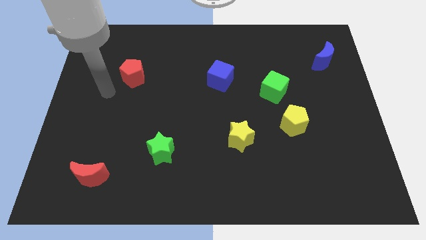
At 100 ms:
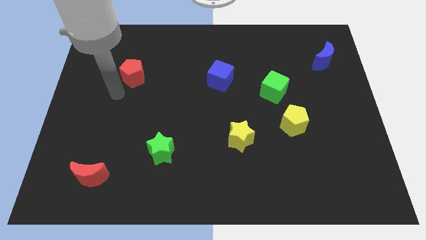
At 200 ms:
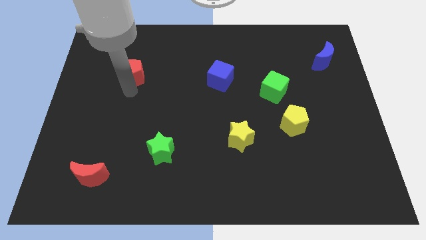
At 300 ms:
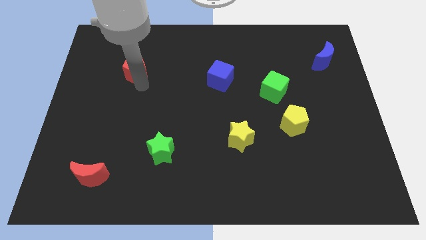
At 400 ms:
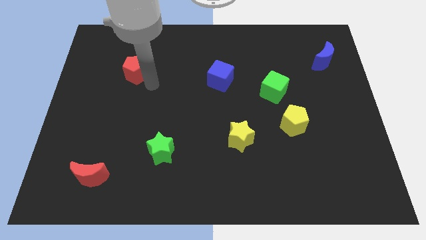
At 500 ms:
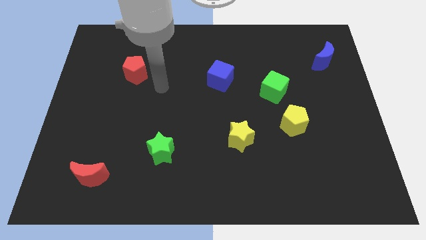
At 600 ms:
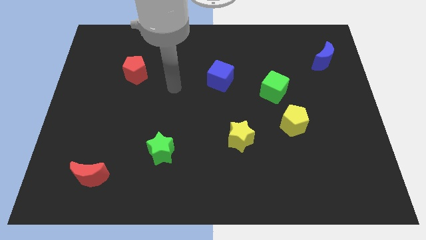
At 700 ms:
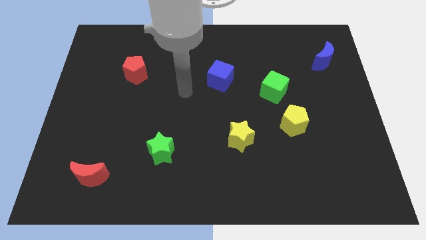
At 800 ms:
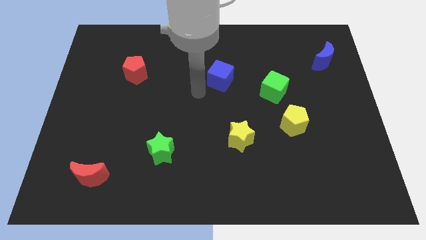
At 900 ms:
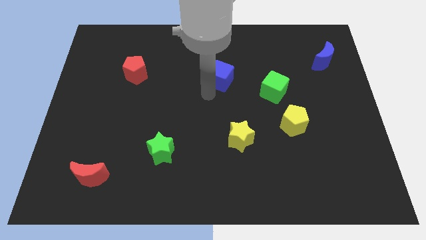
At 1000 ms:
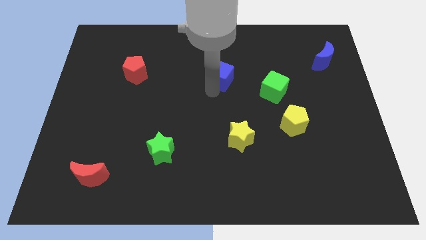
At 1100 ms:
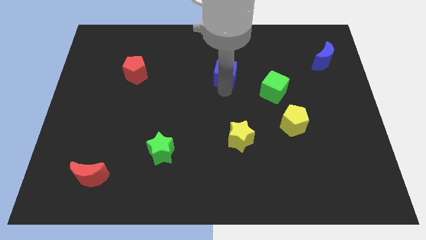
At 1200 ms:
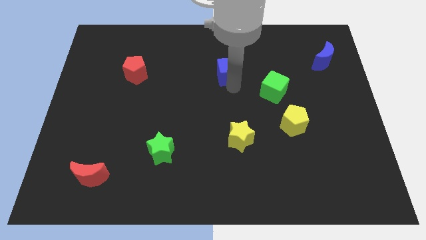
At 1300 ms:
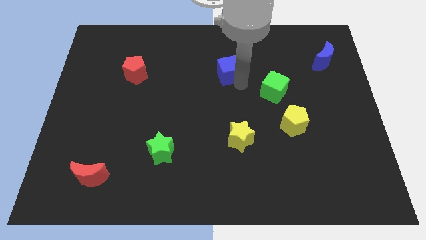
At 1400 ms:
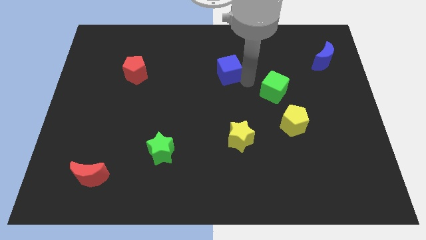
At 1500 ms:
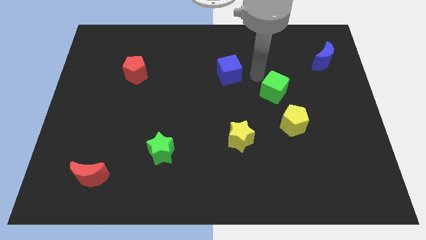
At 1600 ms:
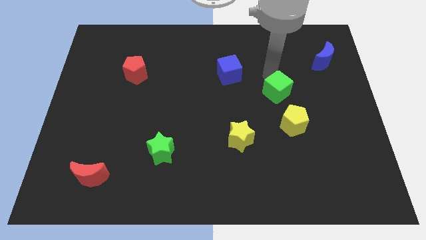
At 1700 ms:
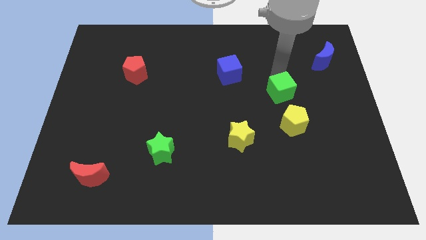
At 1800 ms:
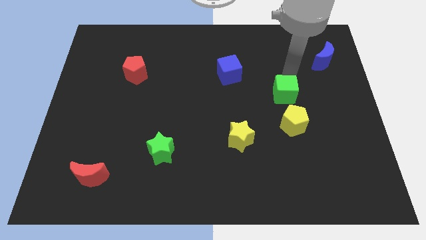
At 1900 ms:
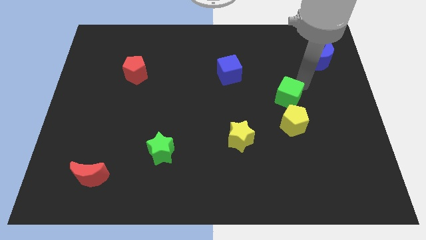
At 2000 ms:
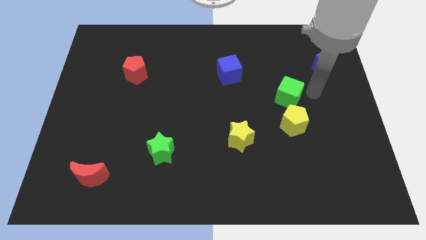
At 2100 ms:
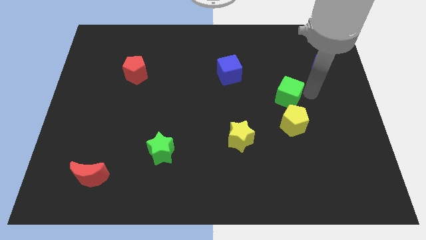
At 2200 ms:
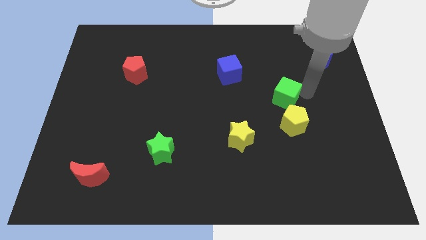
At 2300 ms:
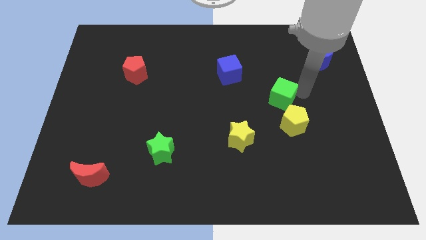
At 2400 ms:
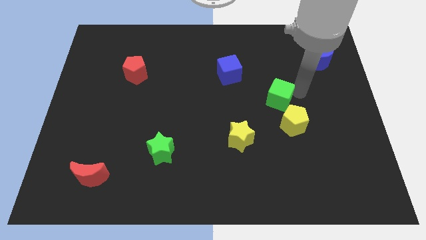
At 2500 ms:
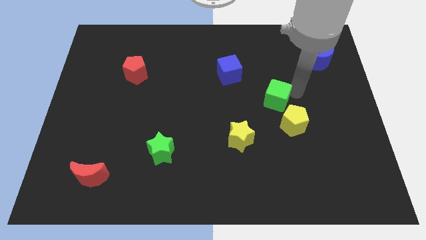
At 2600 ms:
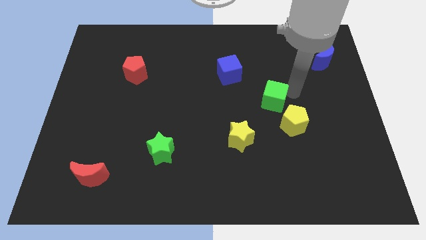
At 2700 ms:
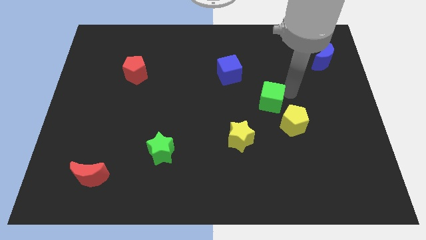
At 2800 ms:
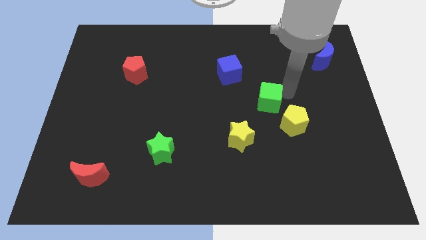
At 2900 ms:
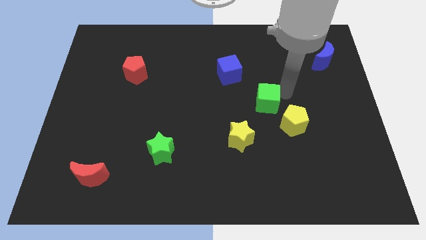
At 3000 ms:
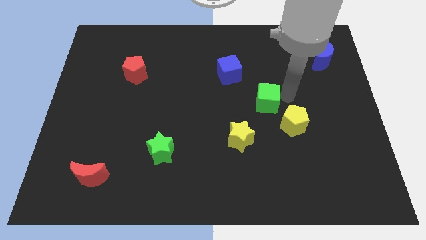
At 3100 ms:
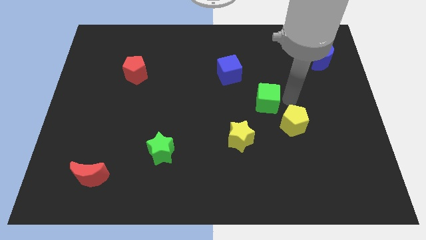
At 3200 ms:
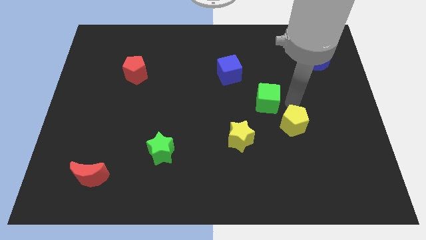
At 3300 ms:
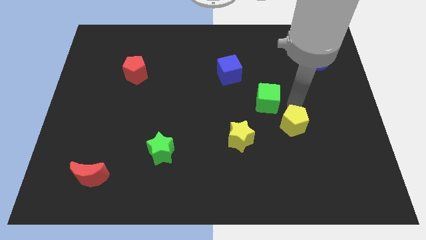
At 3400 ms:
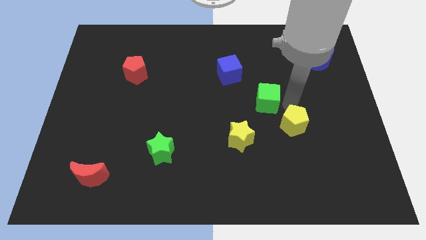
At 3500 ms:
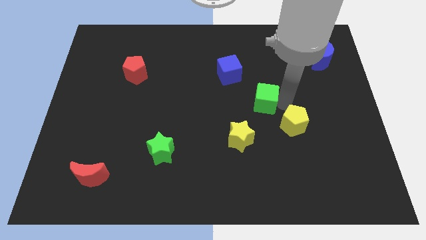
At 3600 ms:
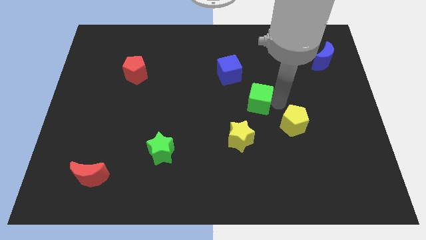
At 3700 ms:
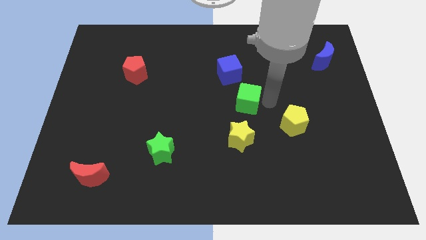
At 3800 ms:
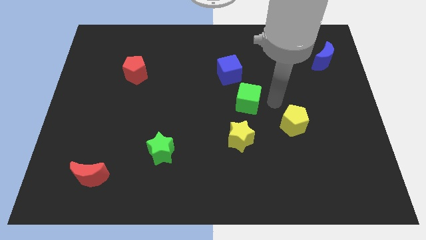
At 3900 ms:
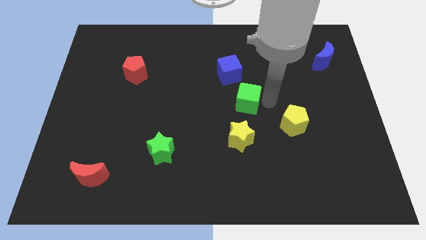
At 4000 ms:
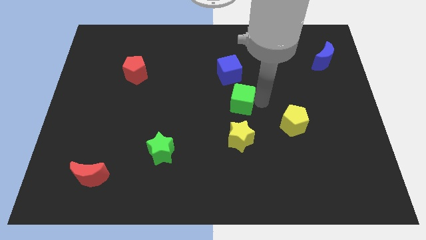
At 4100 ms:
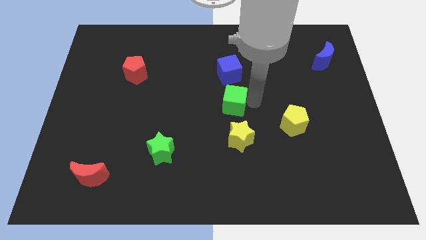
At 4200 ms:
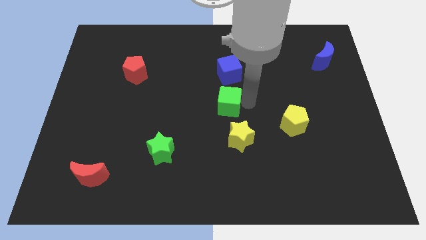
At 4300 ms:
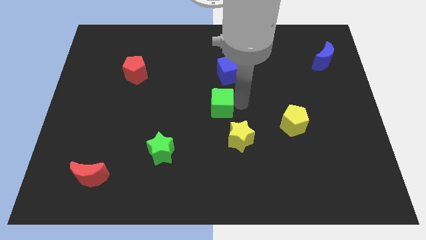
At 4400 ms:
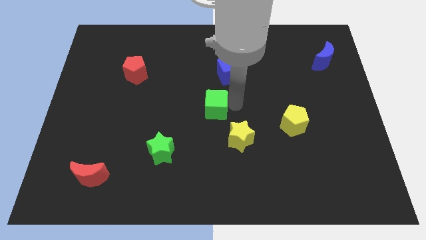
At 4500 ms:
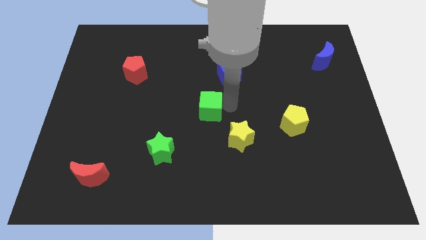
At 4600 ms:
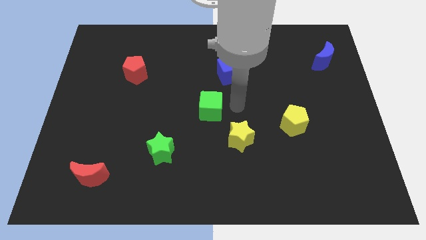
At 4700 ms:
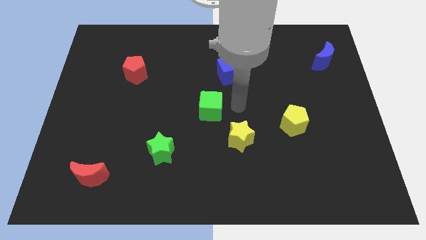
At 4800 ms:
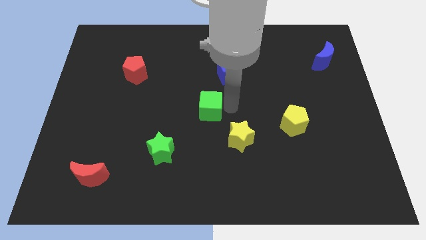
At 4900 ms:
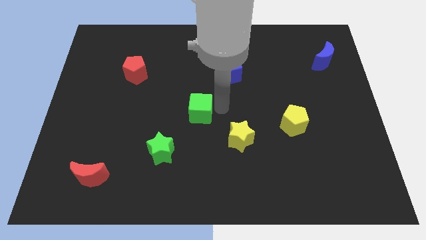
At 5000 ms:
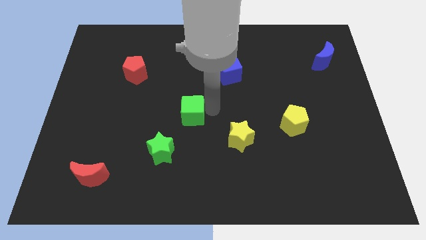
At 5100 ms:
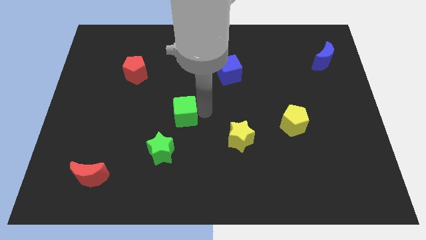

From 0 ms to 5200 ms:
push the green cube to the top of the green star

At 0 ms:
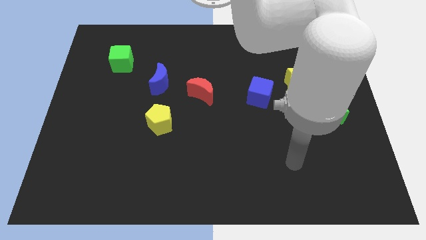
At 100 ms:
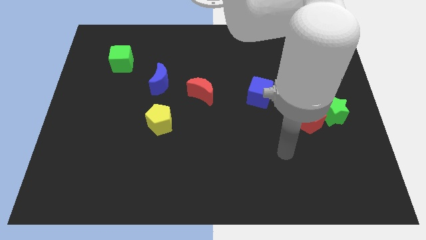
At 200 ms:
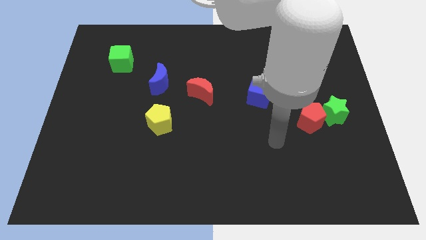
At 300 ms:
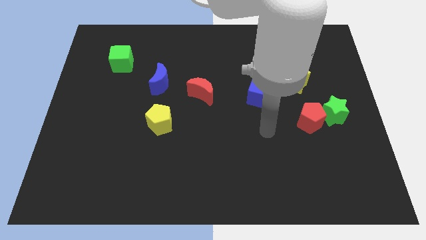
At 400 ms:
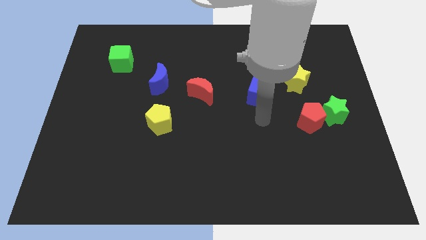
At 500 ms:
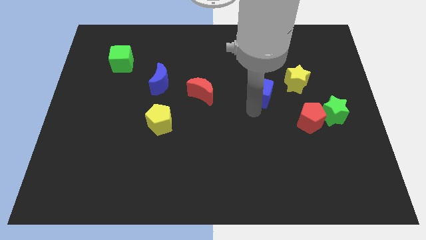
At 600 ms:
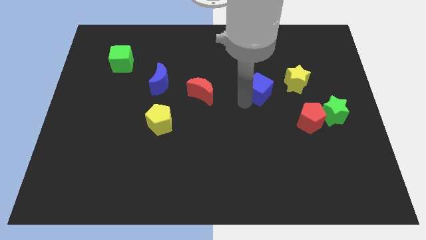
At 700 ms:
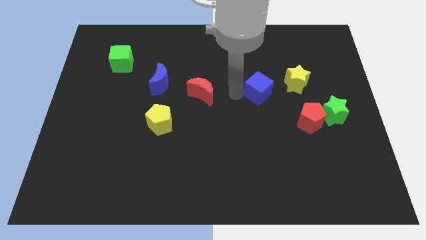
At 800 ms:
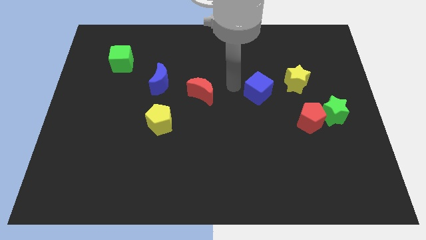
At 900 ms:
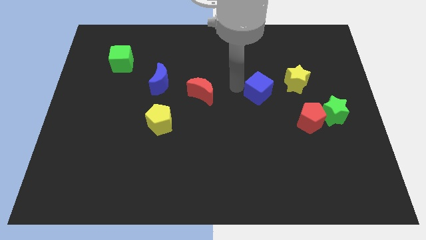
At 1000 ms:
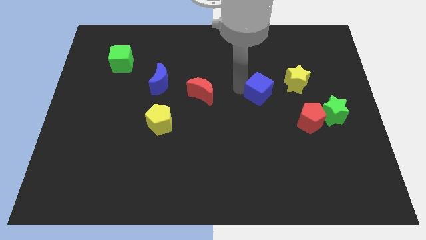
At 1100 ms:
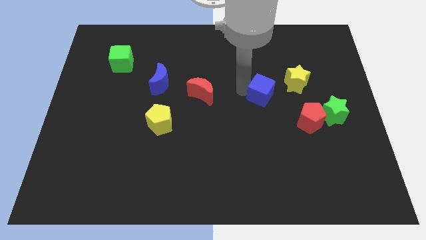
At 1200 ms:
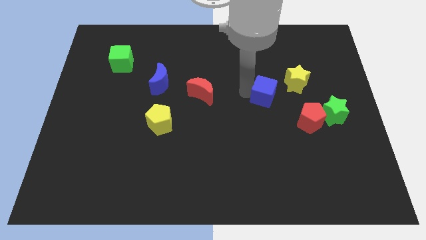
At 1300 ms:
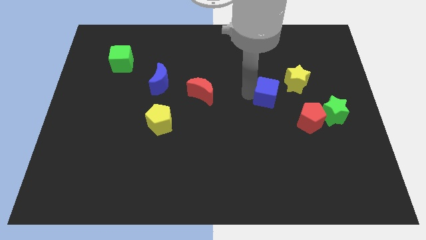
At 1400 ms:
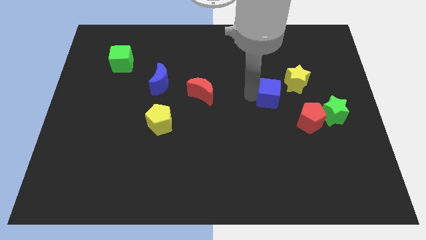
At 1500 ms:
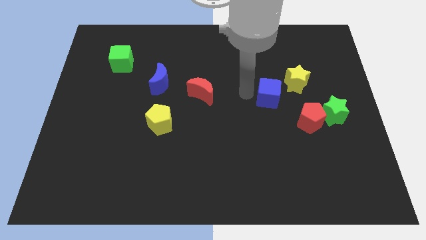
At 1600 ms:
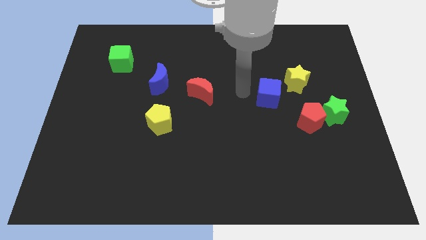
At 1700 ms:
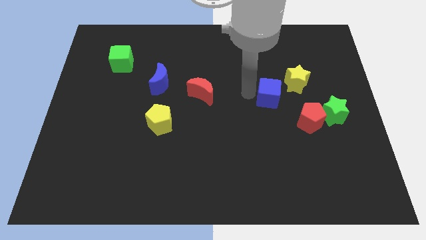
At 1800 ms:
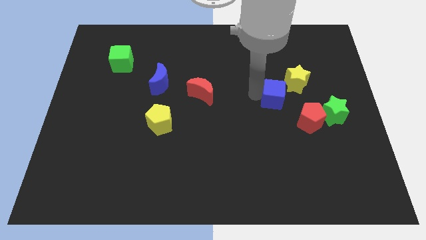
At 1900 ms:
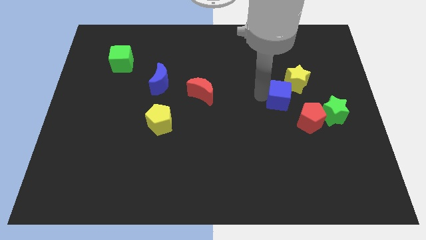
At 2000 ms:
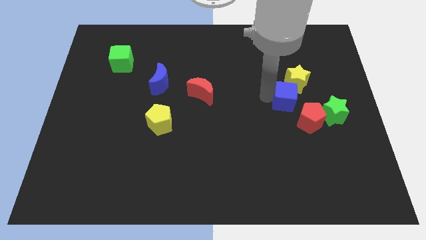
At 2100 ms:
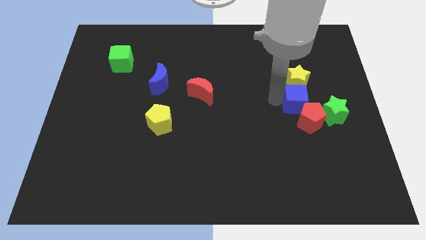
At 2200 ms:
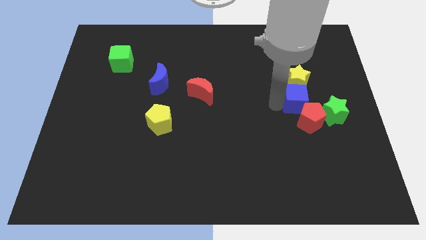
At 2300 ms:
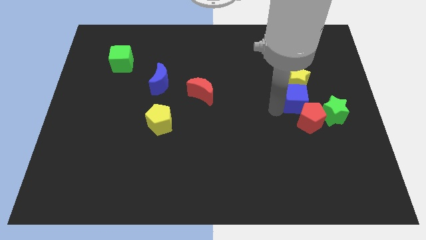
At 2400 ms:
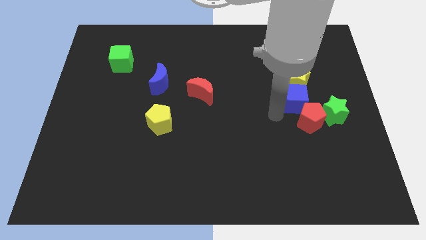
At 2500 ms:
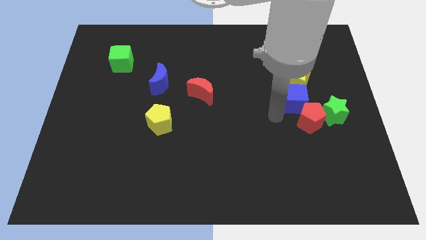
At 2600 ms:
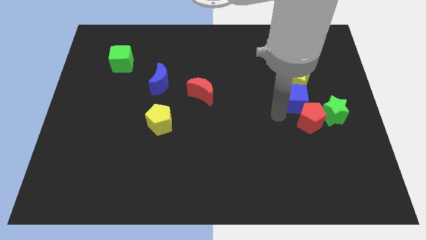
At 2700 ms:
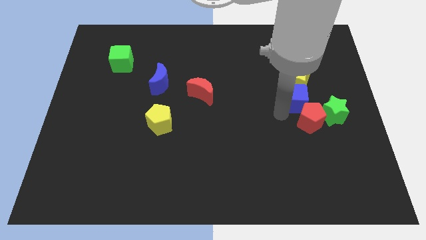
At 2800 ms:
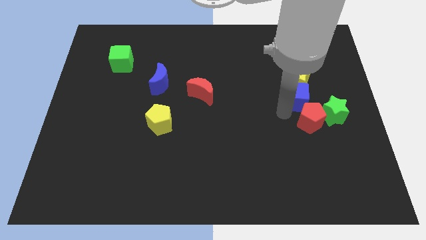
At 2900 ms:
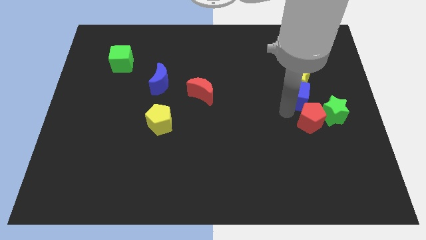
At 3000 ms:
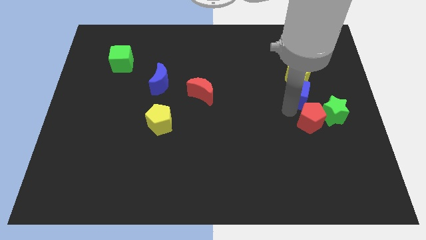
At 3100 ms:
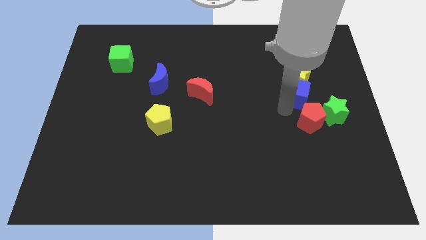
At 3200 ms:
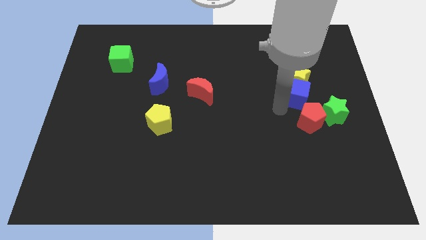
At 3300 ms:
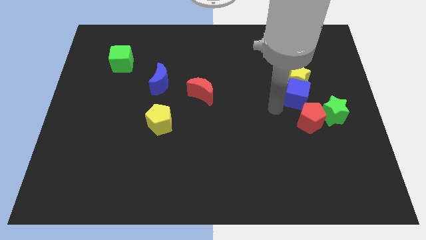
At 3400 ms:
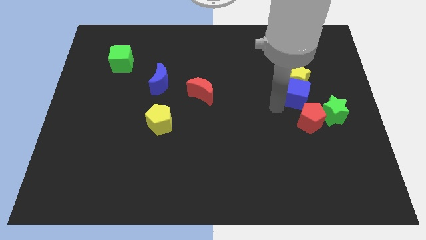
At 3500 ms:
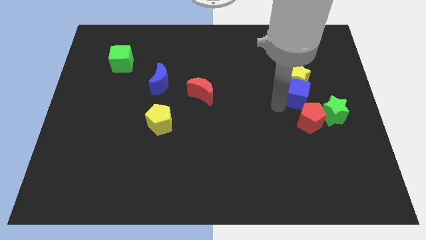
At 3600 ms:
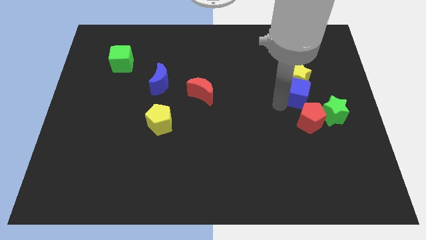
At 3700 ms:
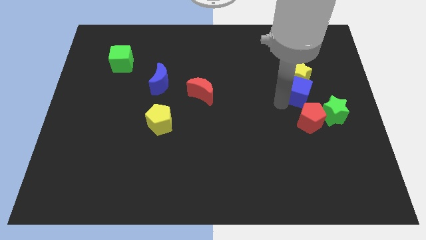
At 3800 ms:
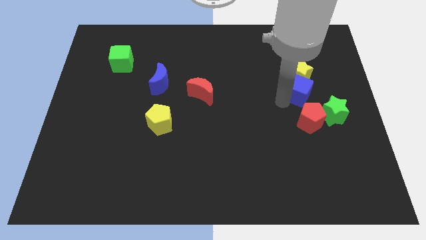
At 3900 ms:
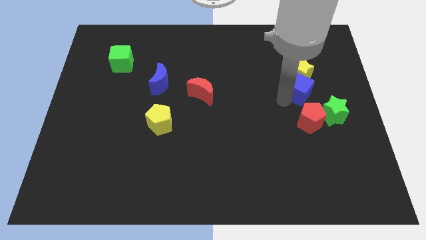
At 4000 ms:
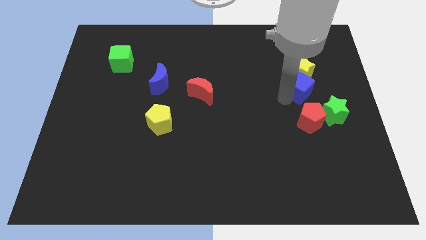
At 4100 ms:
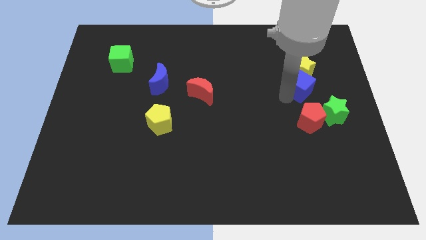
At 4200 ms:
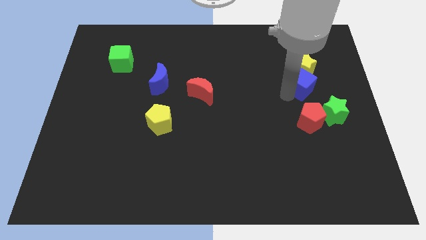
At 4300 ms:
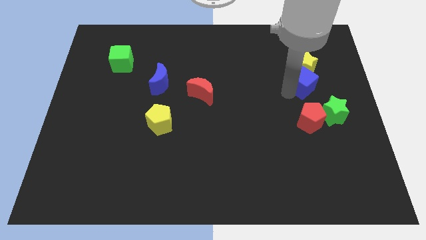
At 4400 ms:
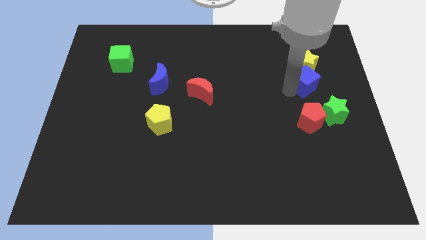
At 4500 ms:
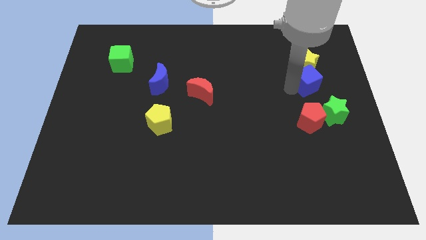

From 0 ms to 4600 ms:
slide the blue cube to the top side of the green star
